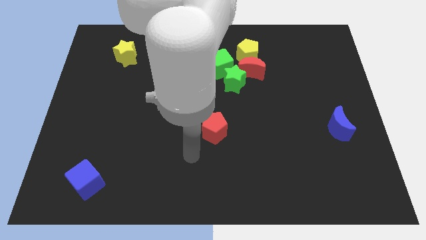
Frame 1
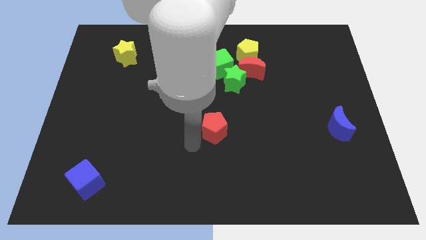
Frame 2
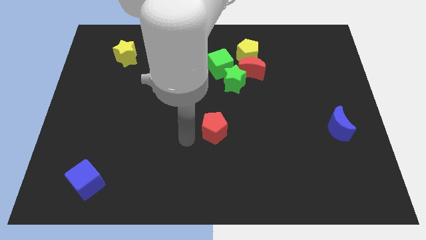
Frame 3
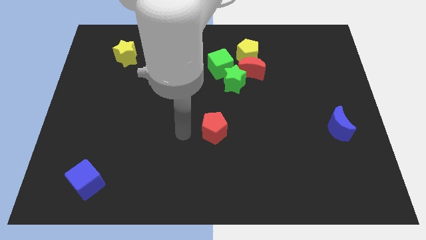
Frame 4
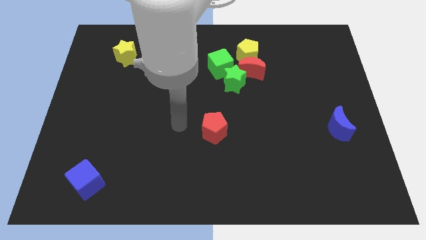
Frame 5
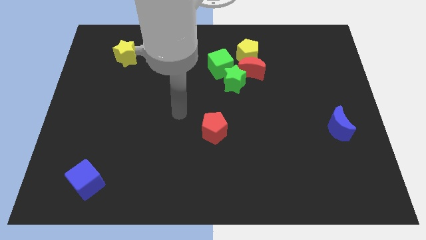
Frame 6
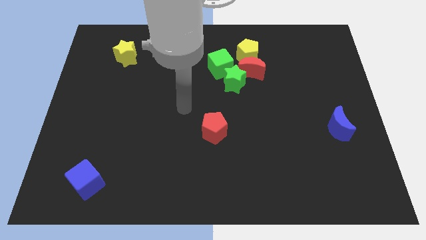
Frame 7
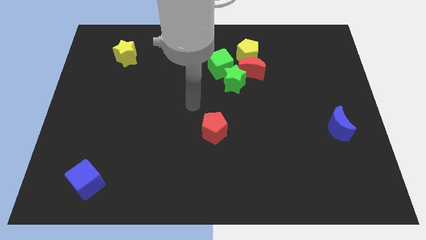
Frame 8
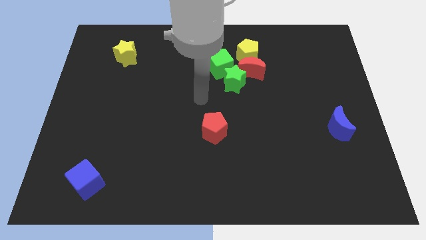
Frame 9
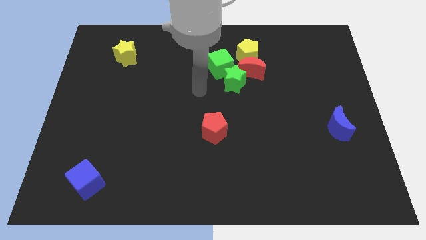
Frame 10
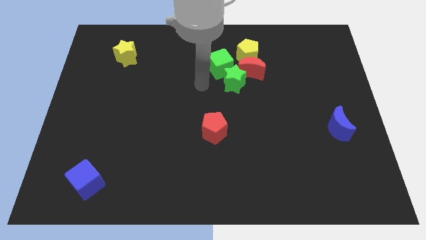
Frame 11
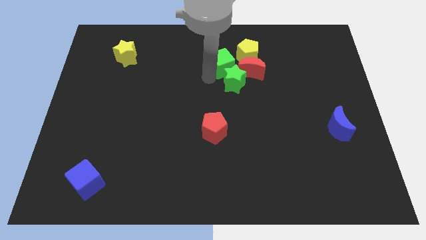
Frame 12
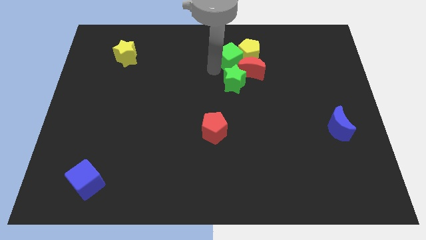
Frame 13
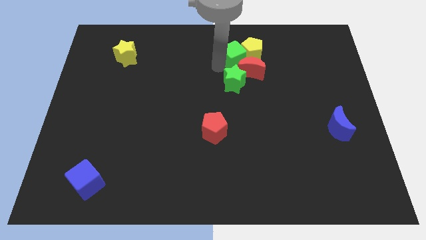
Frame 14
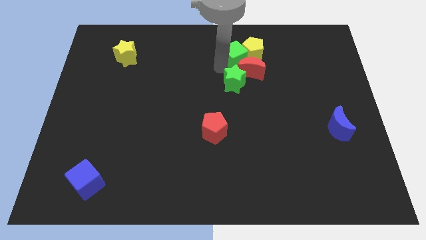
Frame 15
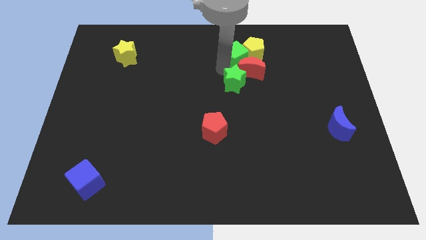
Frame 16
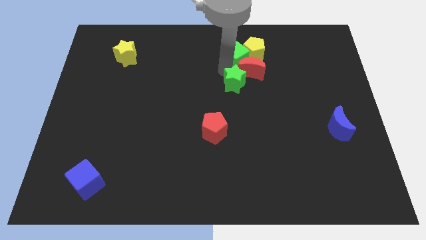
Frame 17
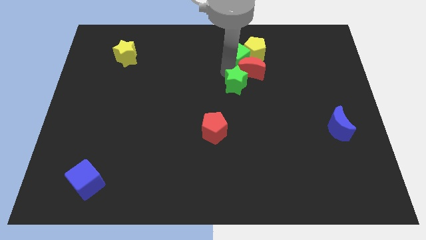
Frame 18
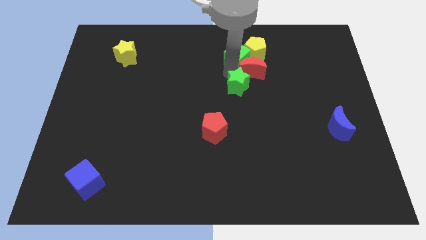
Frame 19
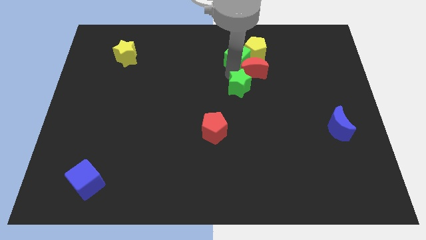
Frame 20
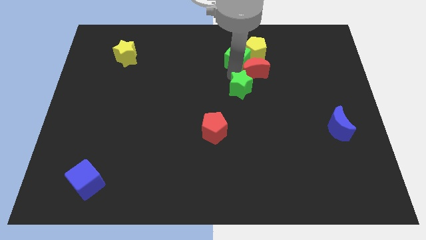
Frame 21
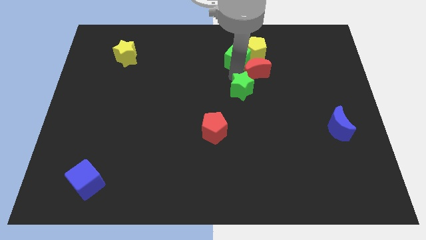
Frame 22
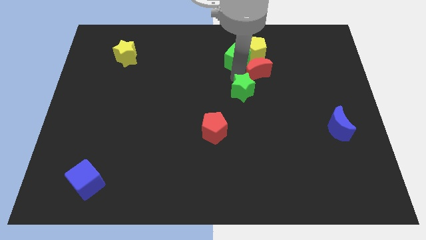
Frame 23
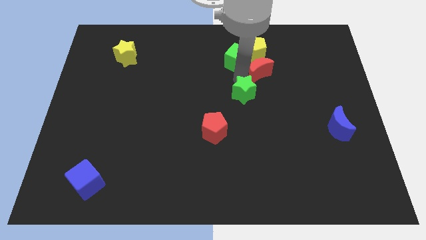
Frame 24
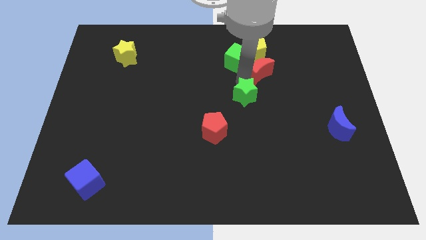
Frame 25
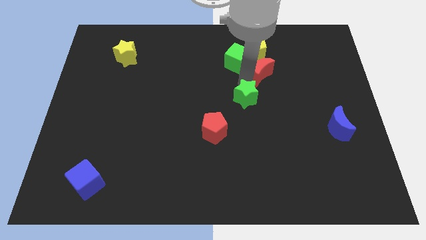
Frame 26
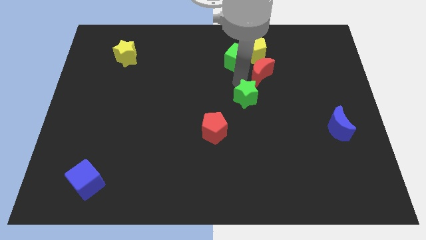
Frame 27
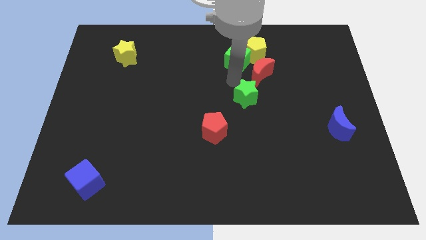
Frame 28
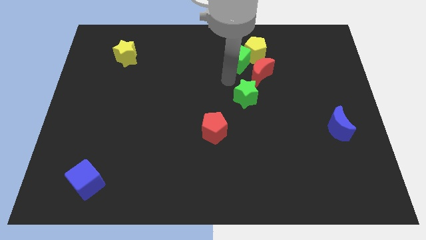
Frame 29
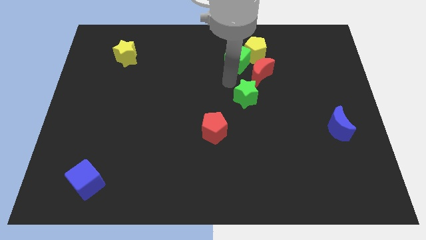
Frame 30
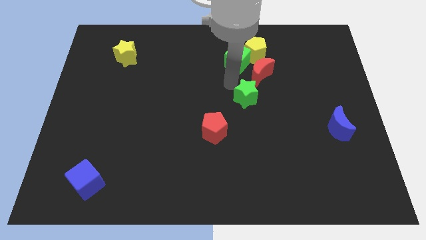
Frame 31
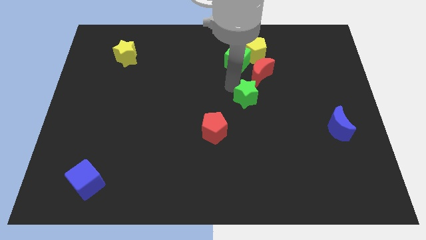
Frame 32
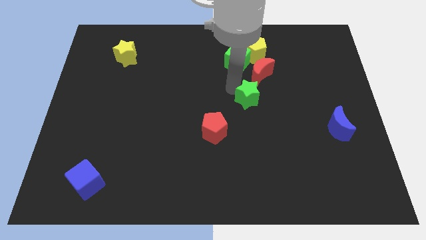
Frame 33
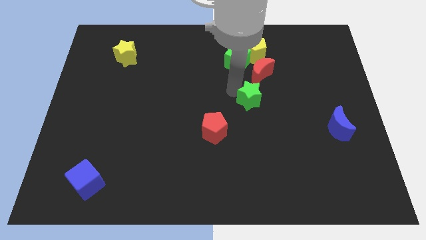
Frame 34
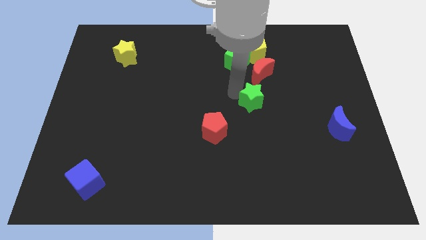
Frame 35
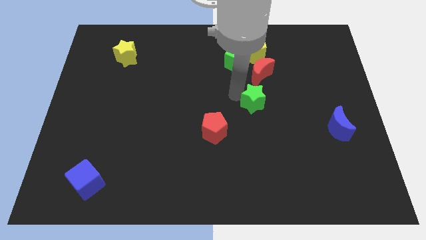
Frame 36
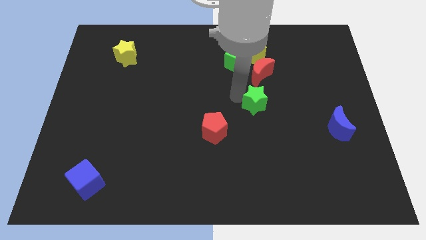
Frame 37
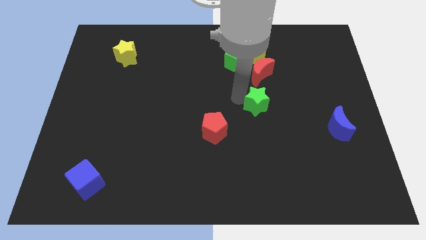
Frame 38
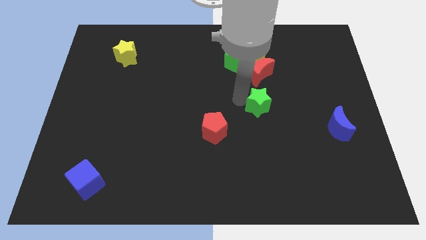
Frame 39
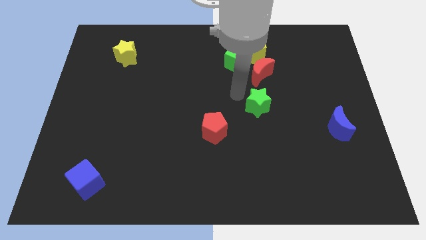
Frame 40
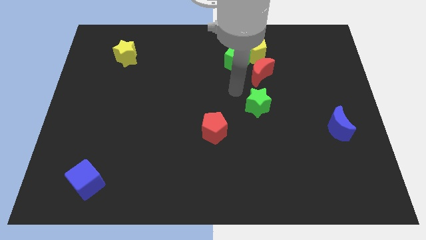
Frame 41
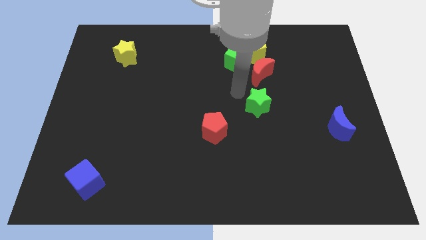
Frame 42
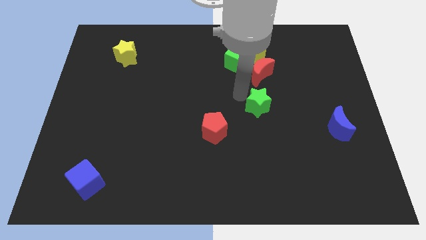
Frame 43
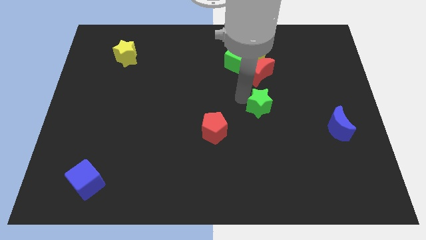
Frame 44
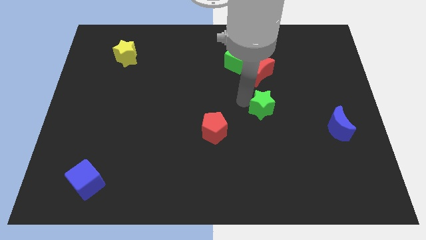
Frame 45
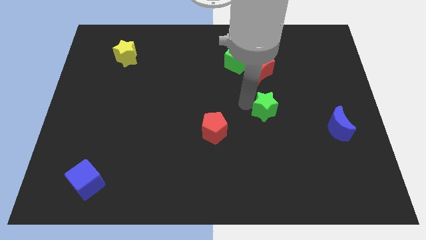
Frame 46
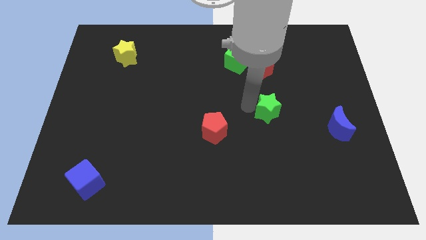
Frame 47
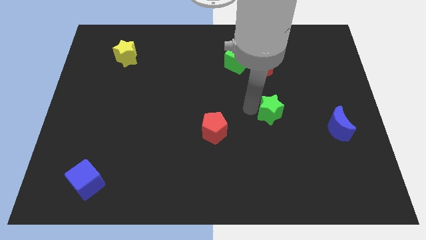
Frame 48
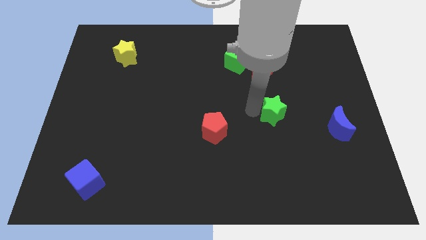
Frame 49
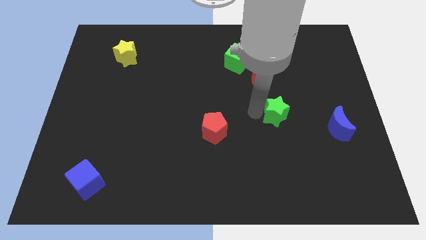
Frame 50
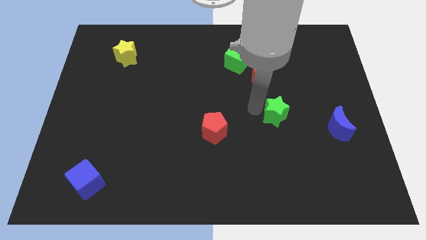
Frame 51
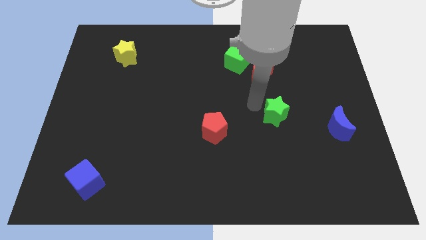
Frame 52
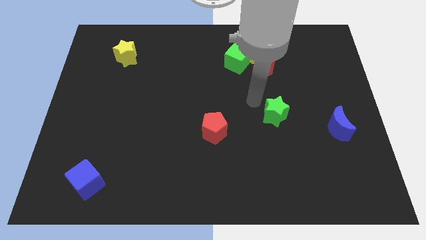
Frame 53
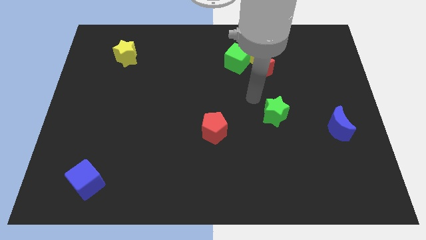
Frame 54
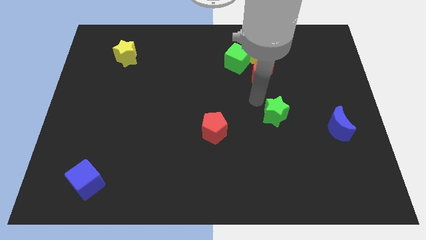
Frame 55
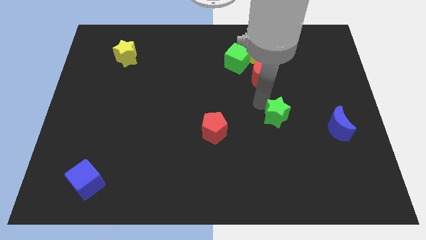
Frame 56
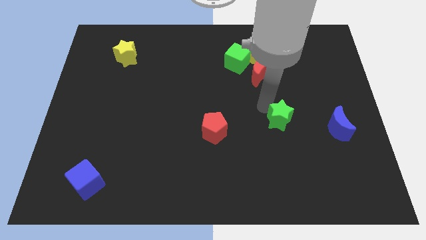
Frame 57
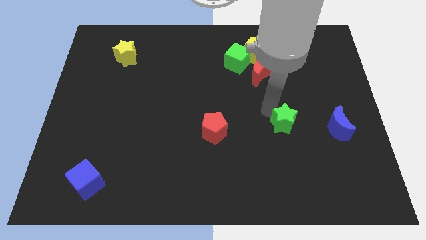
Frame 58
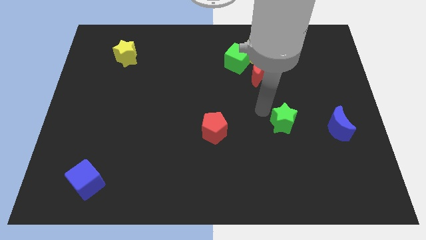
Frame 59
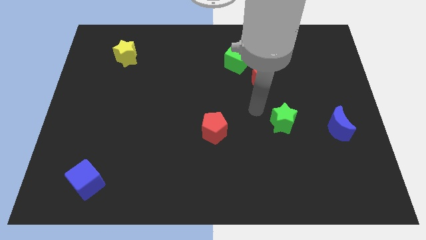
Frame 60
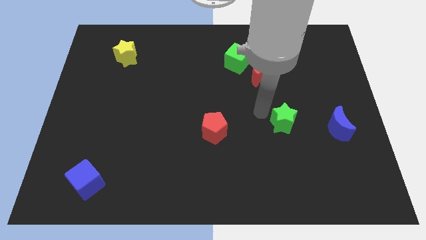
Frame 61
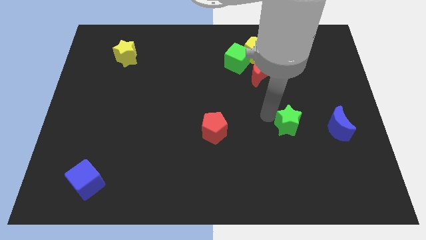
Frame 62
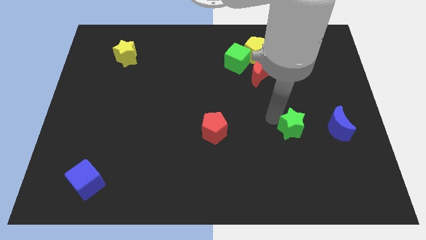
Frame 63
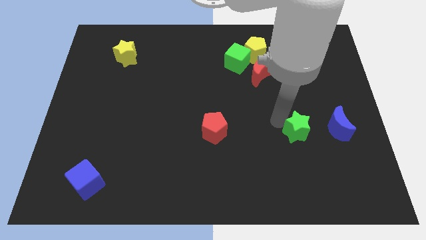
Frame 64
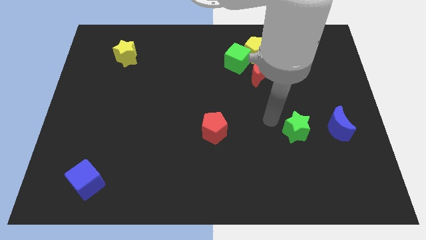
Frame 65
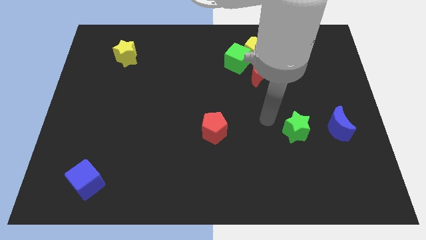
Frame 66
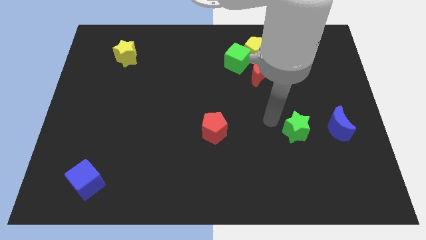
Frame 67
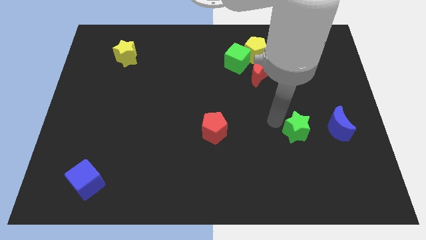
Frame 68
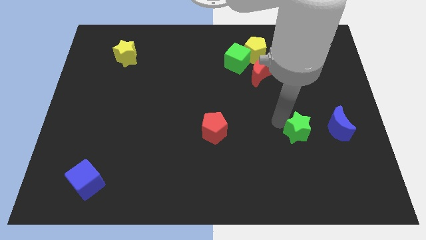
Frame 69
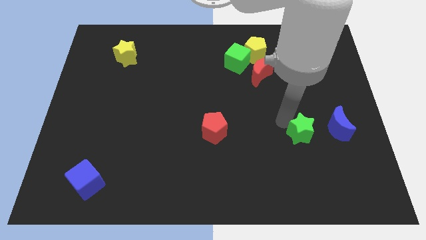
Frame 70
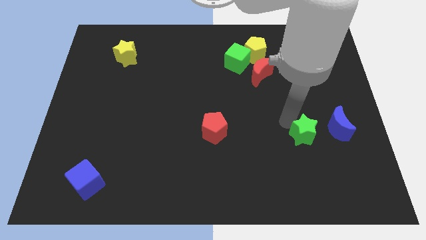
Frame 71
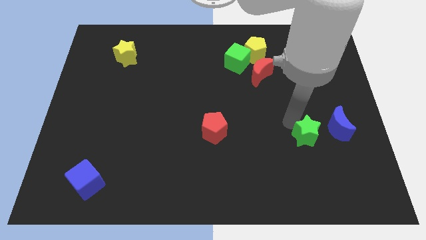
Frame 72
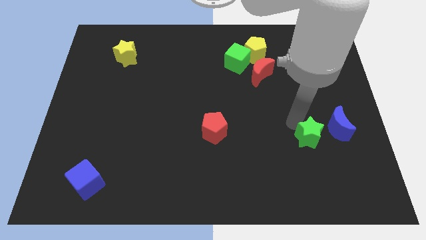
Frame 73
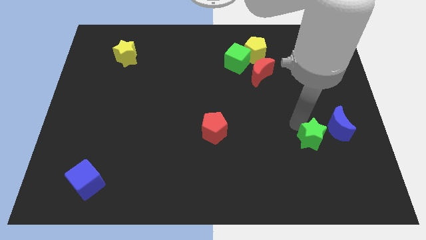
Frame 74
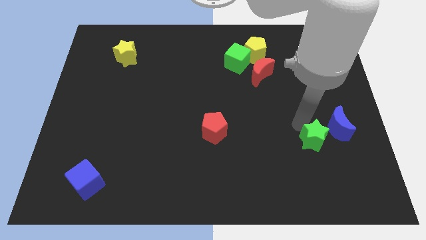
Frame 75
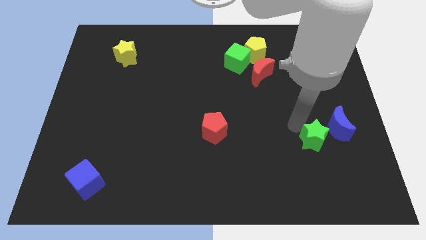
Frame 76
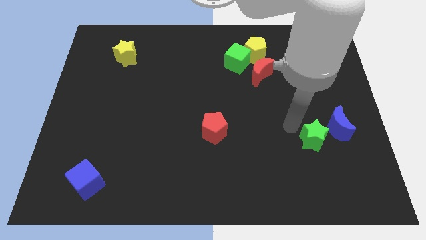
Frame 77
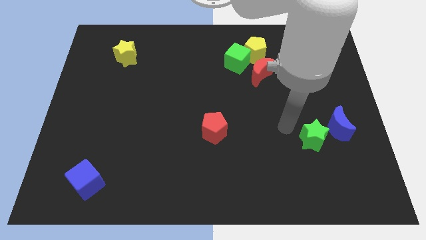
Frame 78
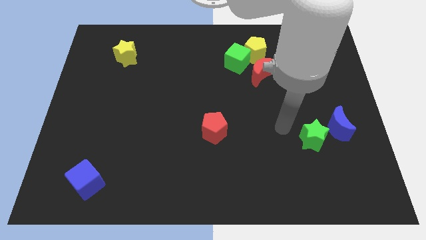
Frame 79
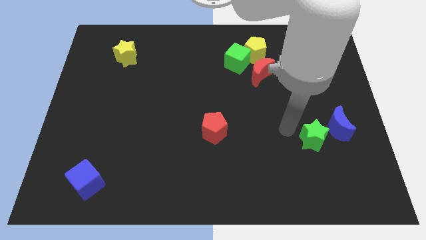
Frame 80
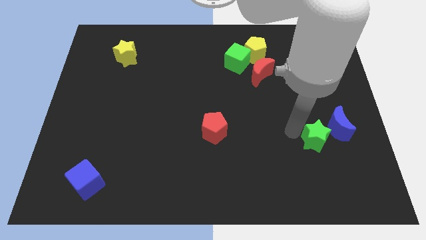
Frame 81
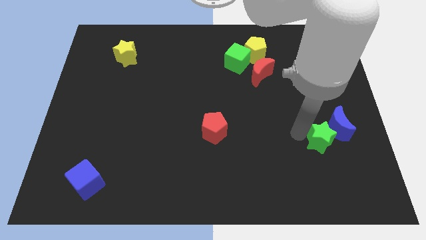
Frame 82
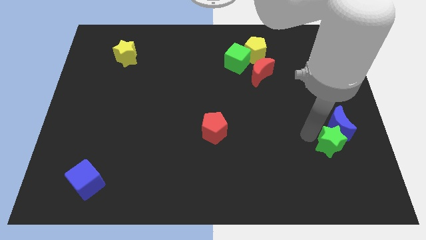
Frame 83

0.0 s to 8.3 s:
move the green star to the bottom side of the blue moon
